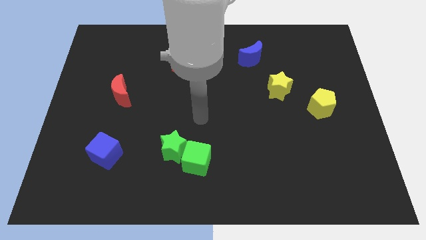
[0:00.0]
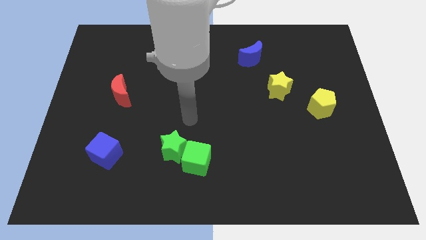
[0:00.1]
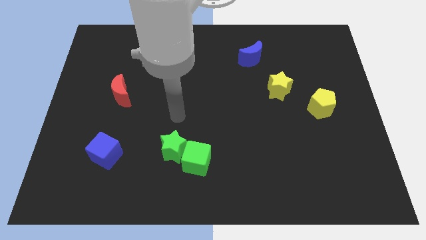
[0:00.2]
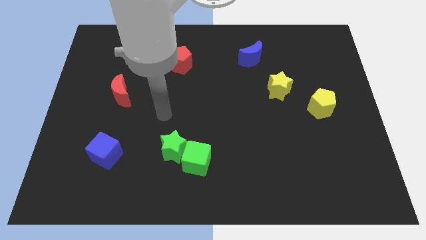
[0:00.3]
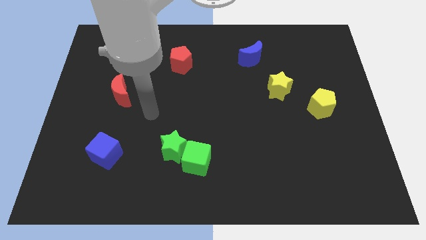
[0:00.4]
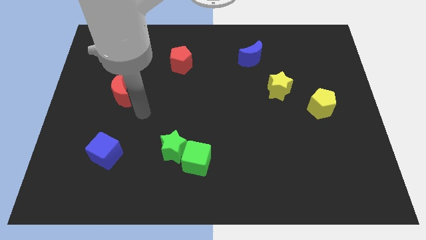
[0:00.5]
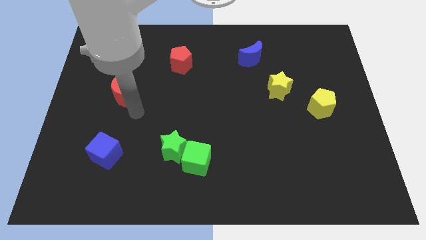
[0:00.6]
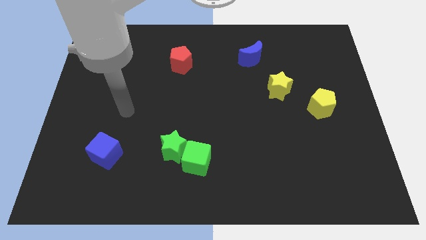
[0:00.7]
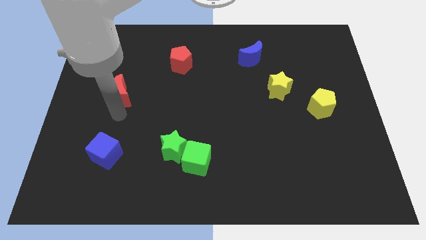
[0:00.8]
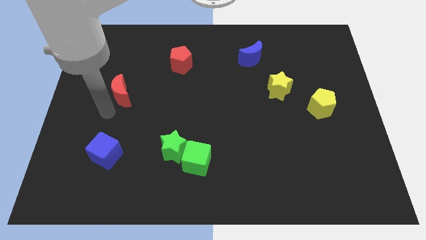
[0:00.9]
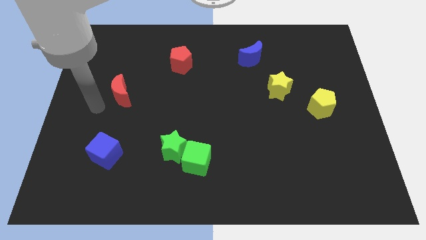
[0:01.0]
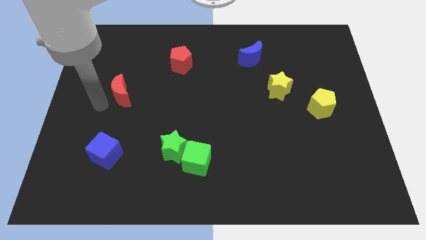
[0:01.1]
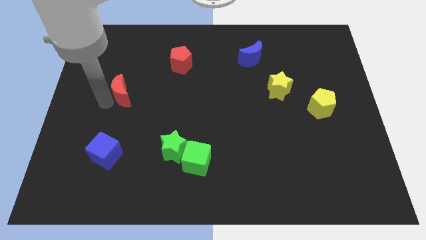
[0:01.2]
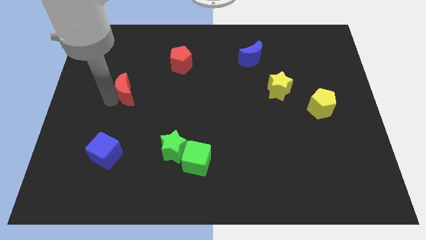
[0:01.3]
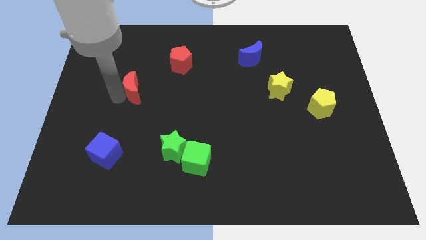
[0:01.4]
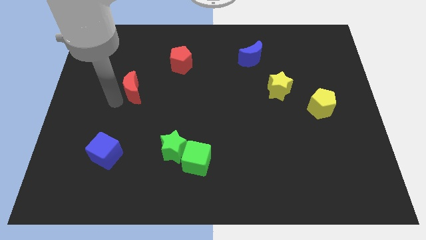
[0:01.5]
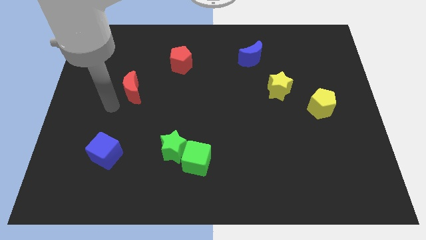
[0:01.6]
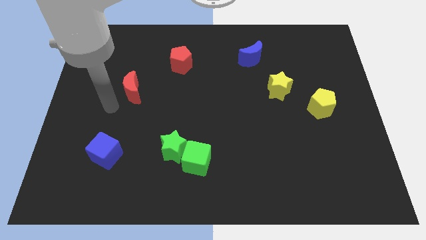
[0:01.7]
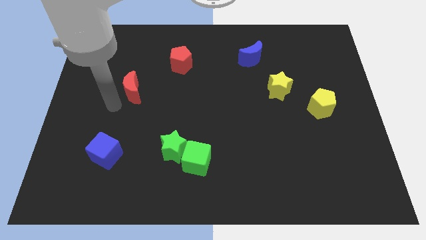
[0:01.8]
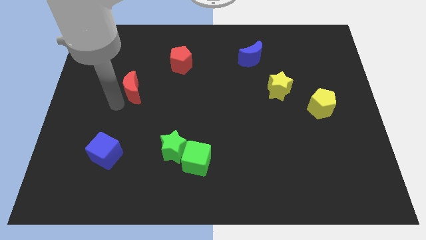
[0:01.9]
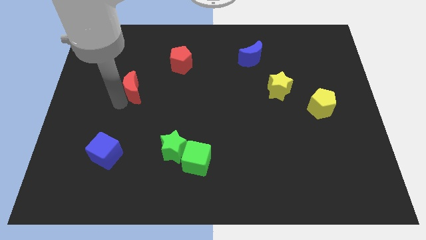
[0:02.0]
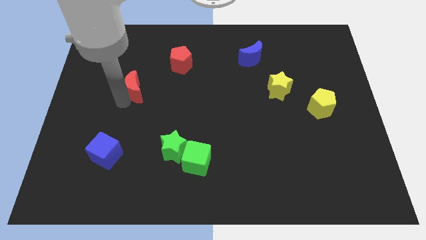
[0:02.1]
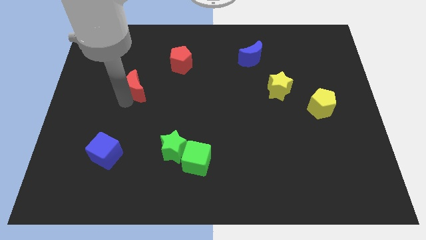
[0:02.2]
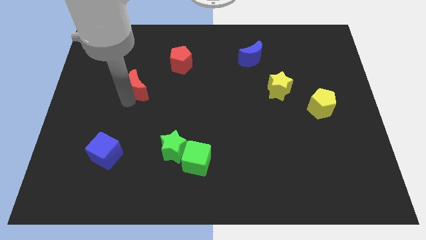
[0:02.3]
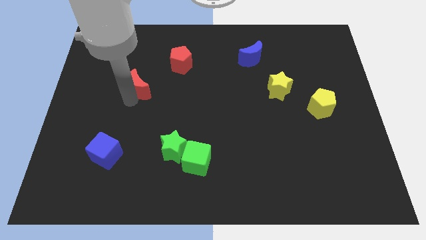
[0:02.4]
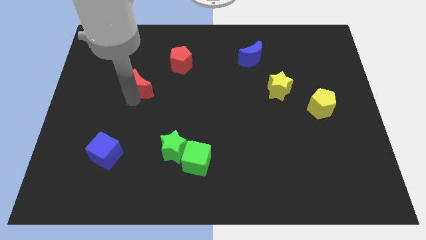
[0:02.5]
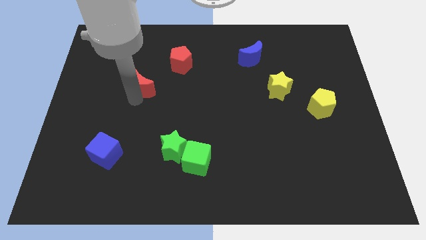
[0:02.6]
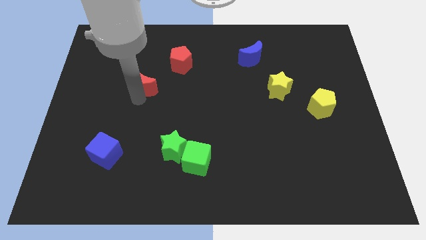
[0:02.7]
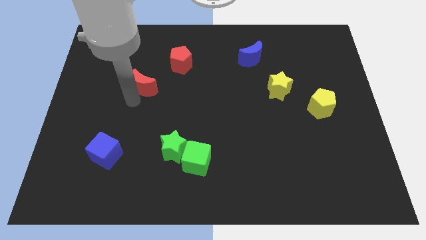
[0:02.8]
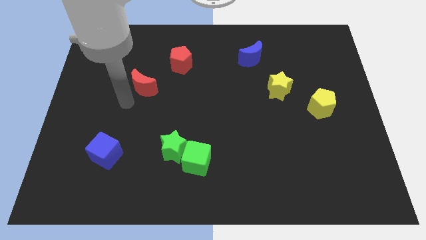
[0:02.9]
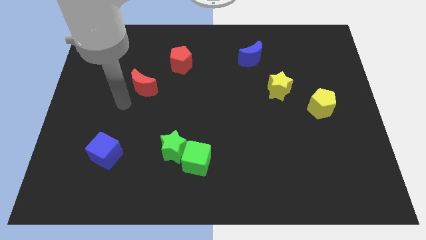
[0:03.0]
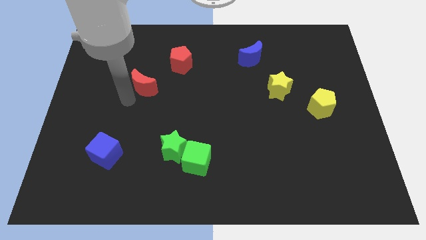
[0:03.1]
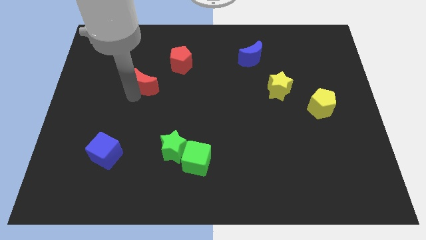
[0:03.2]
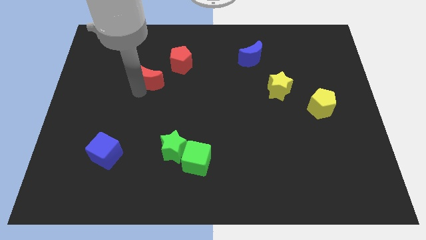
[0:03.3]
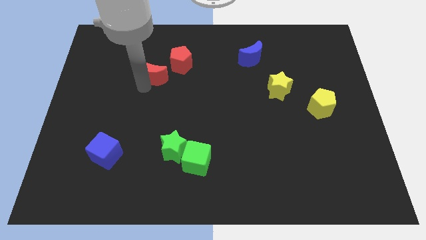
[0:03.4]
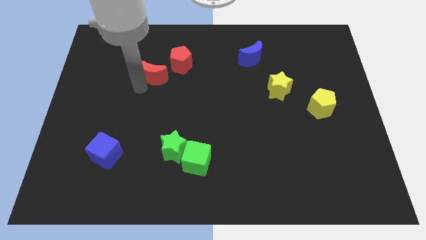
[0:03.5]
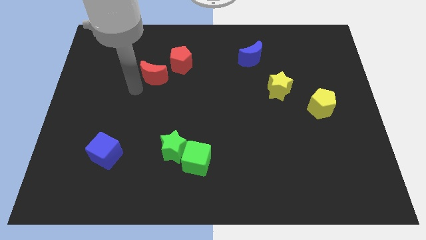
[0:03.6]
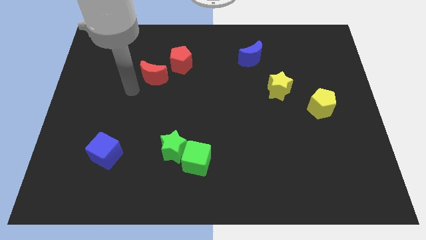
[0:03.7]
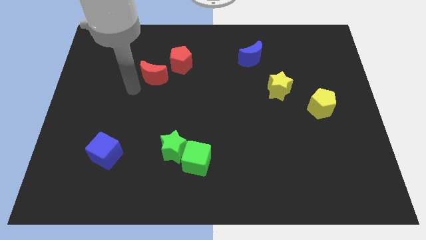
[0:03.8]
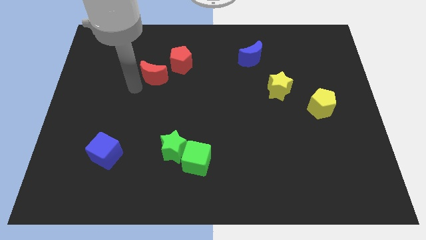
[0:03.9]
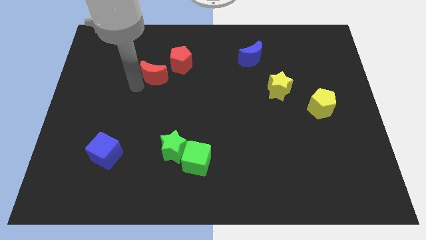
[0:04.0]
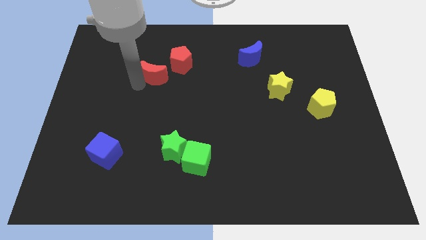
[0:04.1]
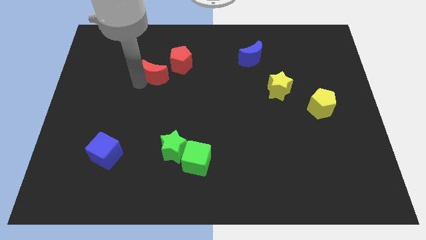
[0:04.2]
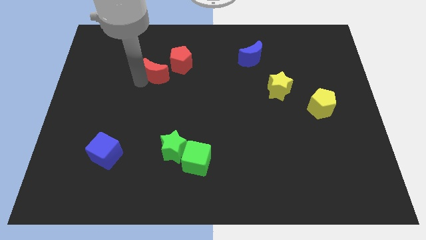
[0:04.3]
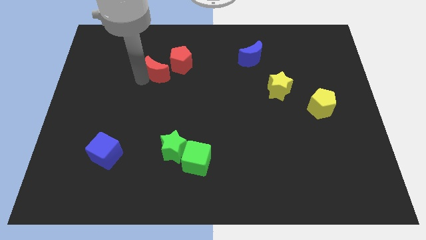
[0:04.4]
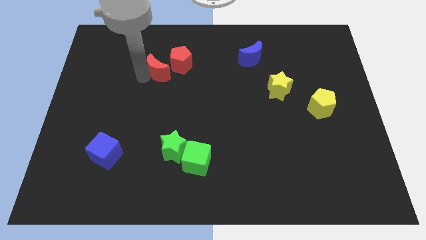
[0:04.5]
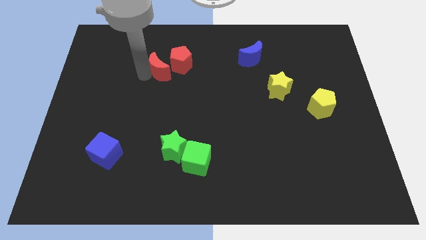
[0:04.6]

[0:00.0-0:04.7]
put the red moon to the red pentagon

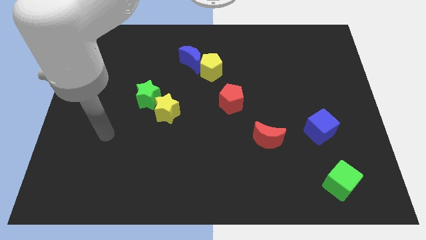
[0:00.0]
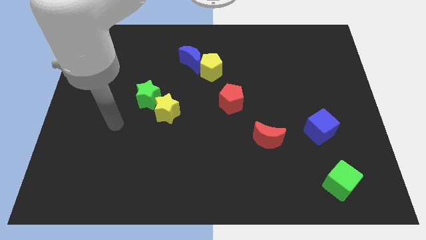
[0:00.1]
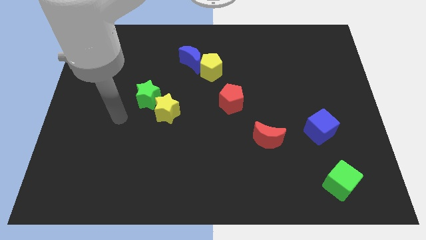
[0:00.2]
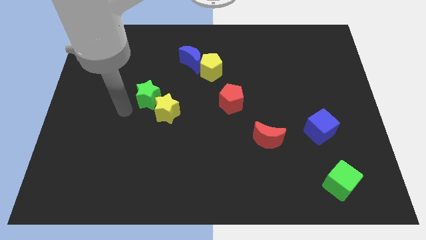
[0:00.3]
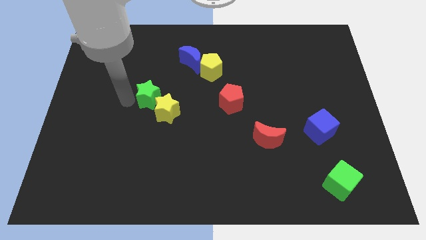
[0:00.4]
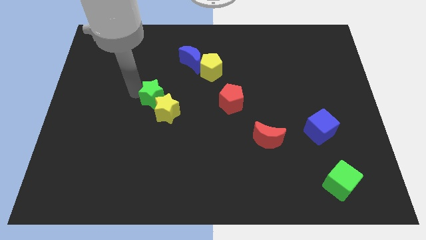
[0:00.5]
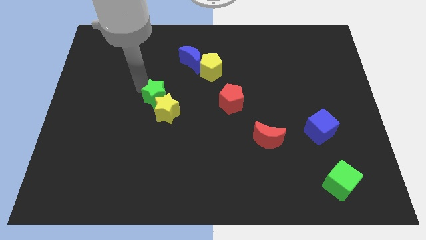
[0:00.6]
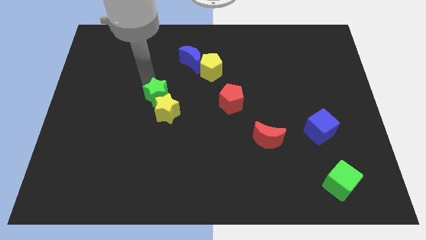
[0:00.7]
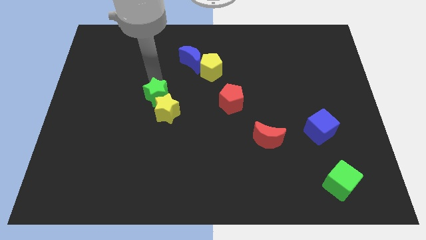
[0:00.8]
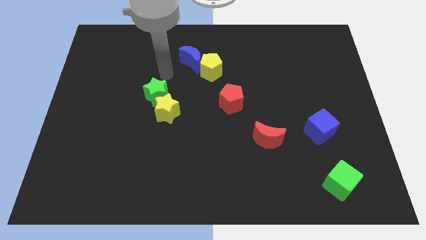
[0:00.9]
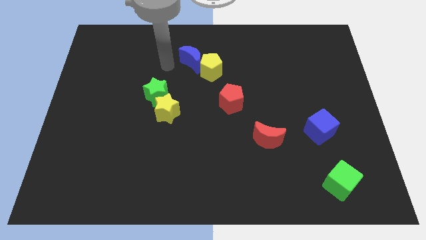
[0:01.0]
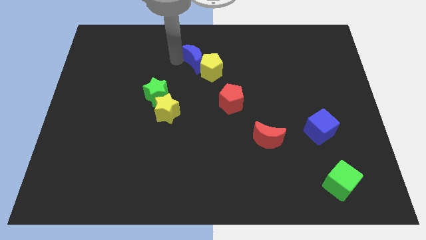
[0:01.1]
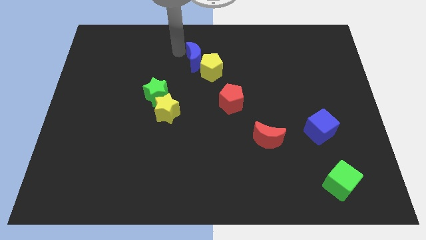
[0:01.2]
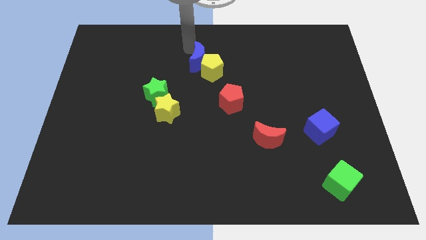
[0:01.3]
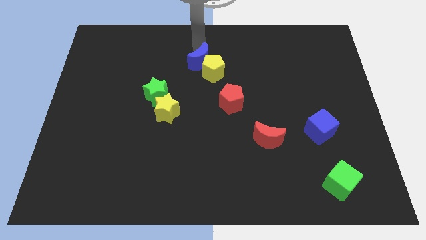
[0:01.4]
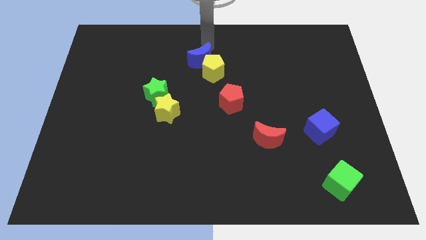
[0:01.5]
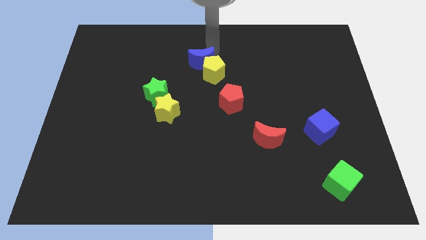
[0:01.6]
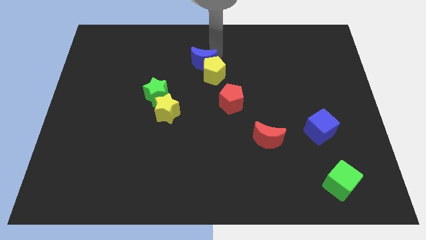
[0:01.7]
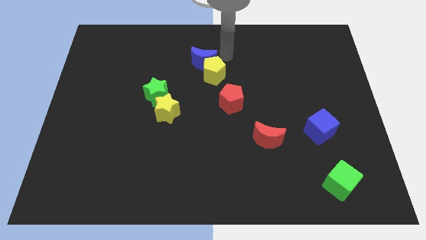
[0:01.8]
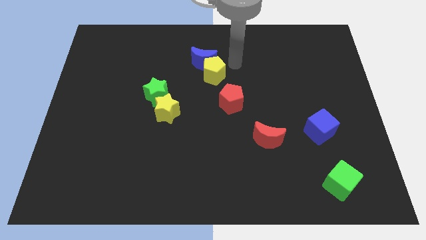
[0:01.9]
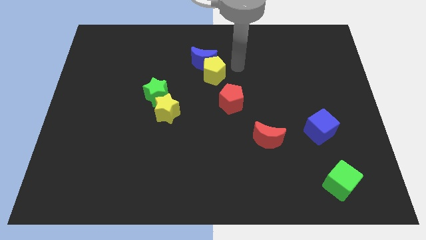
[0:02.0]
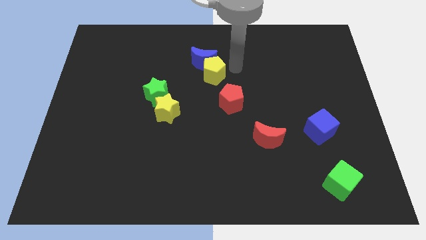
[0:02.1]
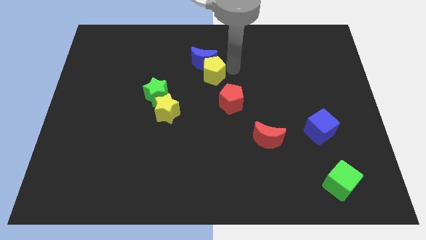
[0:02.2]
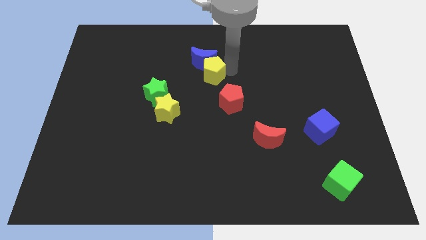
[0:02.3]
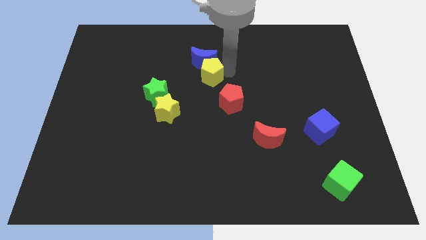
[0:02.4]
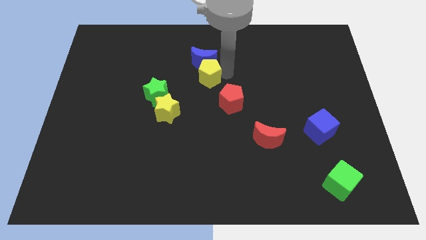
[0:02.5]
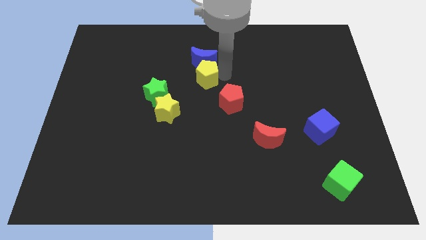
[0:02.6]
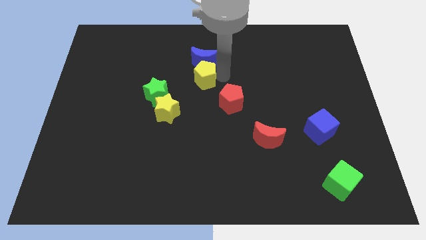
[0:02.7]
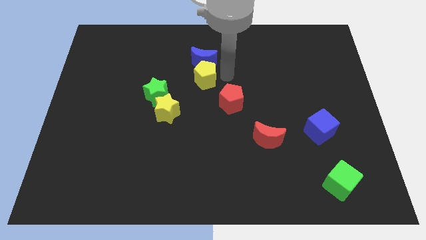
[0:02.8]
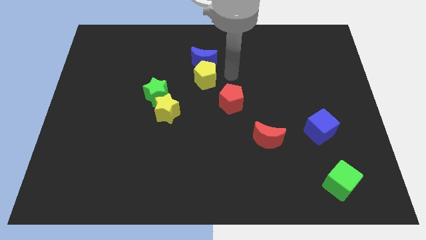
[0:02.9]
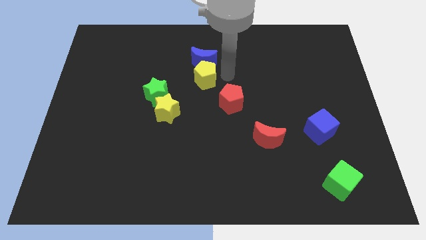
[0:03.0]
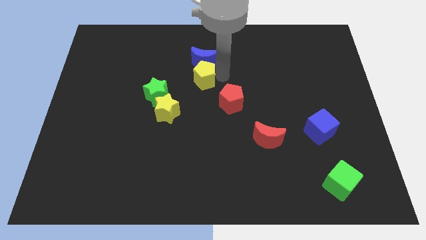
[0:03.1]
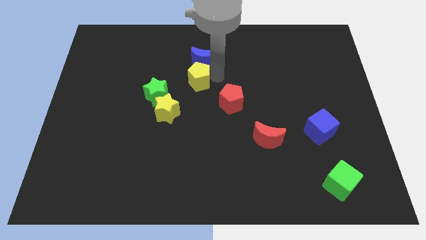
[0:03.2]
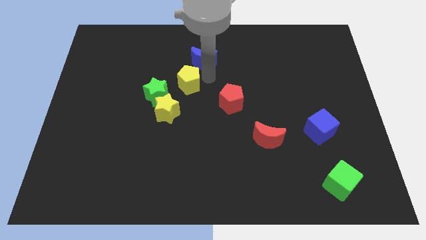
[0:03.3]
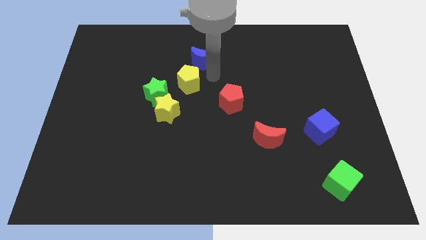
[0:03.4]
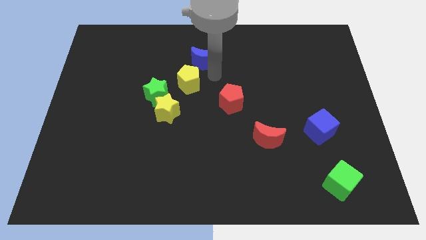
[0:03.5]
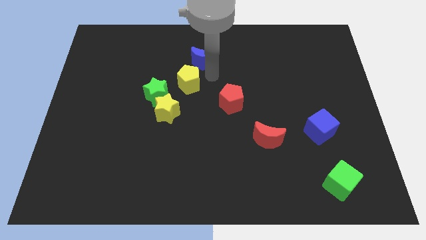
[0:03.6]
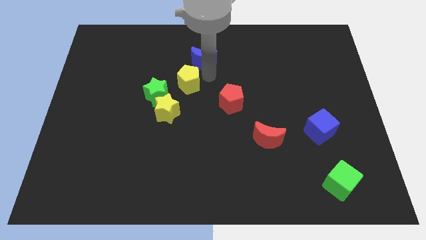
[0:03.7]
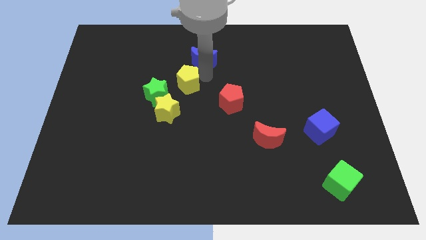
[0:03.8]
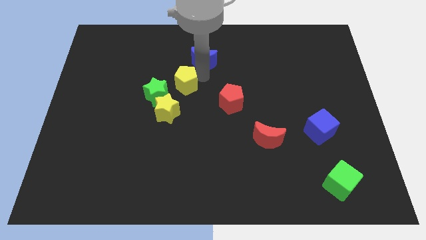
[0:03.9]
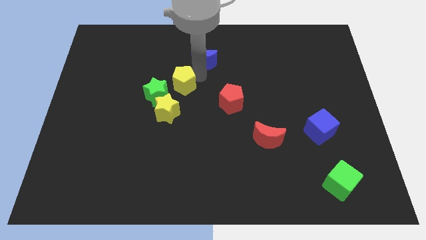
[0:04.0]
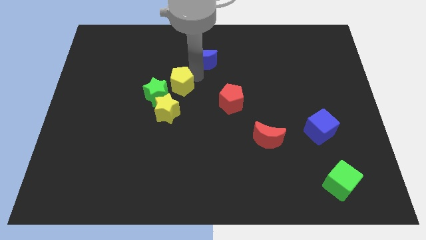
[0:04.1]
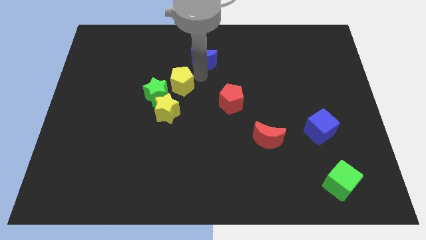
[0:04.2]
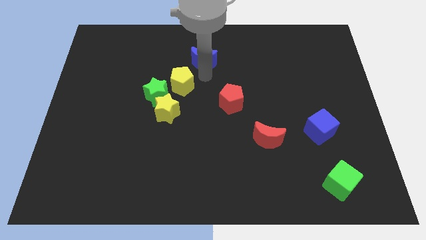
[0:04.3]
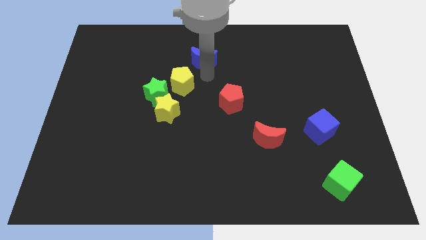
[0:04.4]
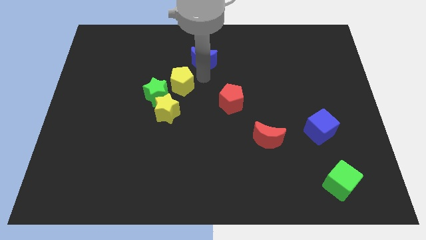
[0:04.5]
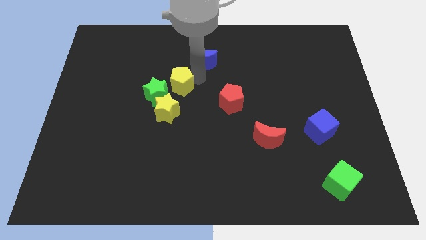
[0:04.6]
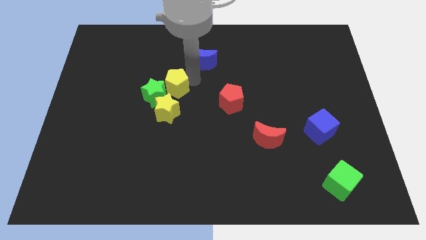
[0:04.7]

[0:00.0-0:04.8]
slide the yellow pentagon to the green star
